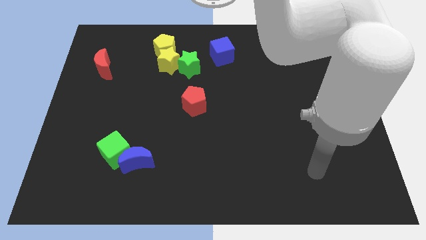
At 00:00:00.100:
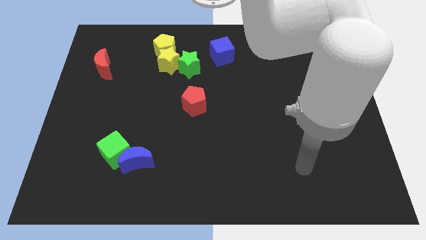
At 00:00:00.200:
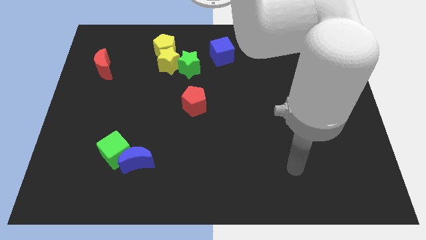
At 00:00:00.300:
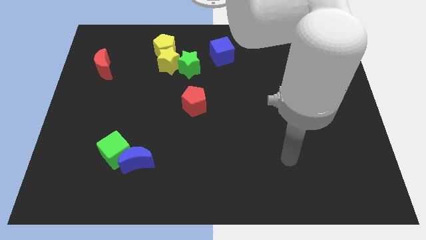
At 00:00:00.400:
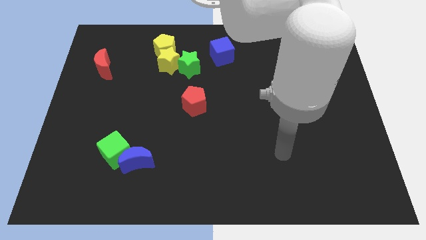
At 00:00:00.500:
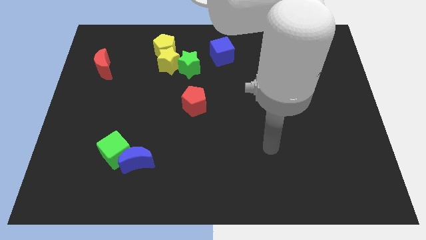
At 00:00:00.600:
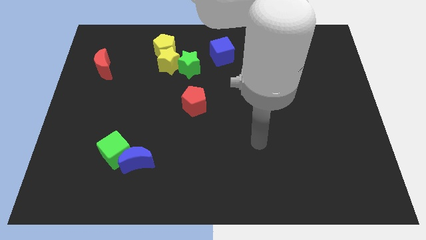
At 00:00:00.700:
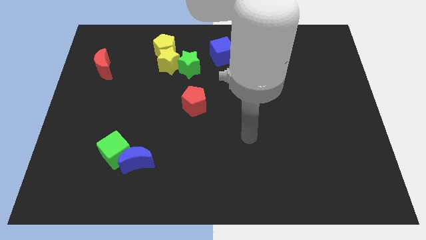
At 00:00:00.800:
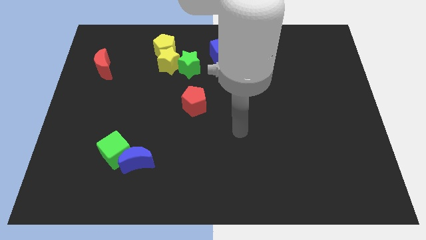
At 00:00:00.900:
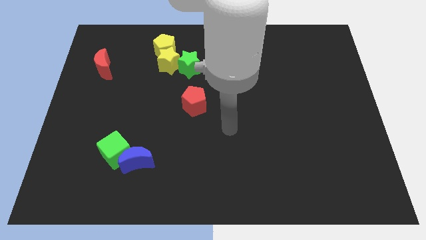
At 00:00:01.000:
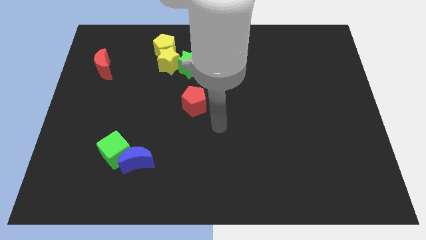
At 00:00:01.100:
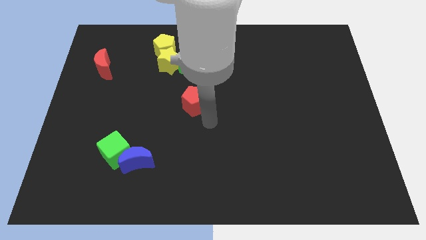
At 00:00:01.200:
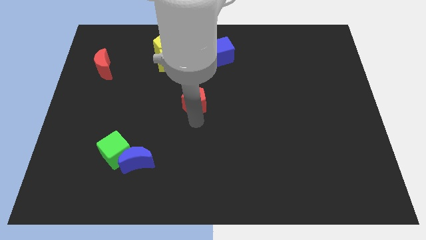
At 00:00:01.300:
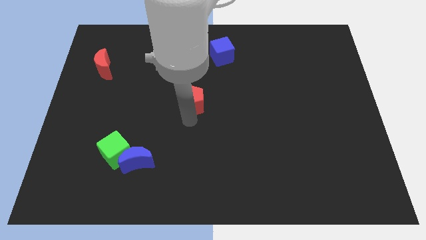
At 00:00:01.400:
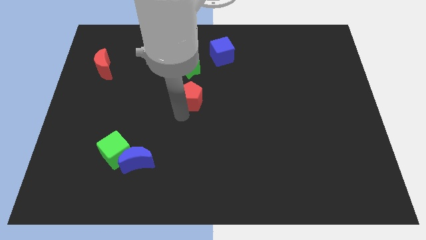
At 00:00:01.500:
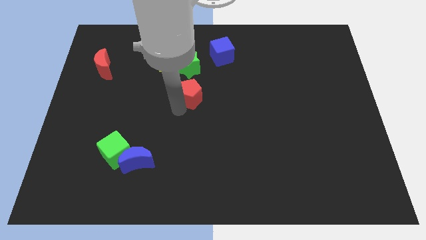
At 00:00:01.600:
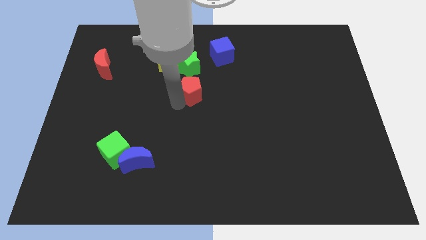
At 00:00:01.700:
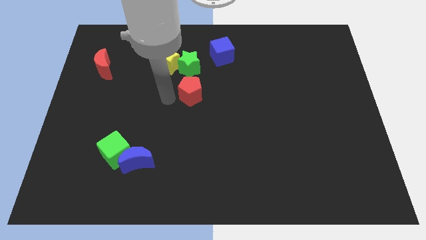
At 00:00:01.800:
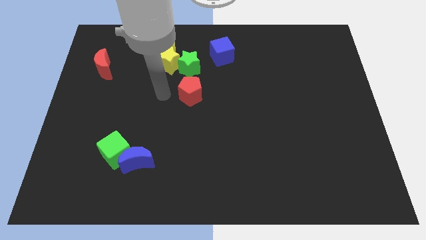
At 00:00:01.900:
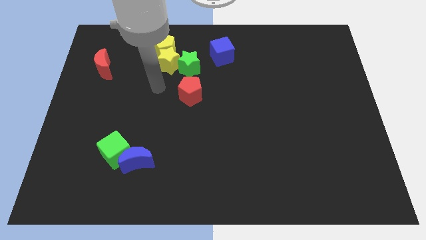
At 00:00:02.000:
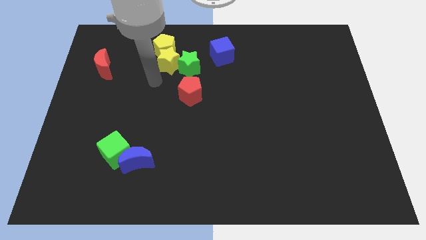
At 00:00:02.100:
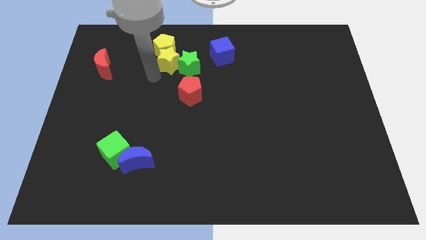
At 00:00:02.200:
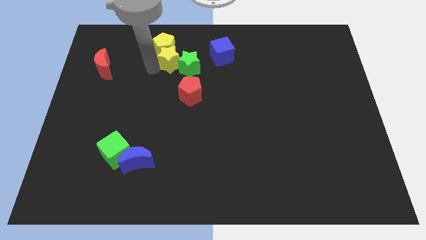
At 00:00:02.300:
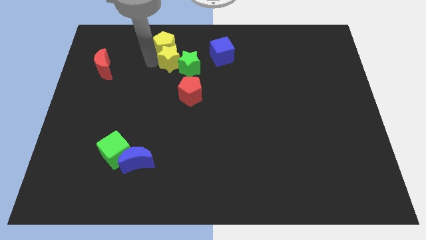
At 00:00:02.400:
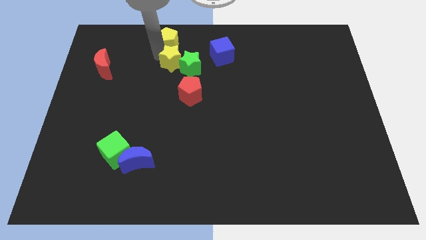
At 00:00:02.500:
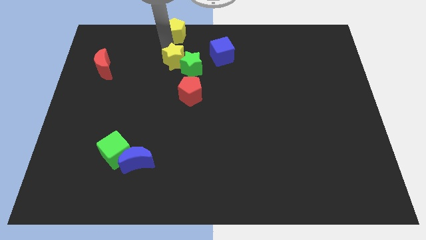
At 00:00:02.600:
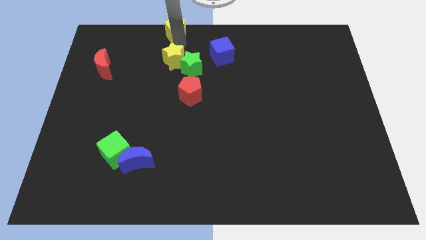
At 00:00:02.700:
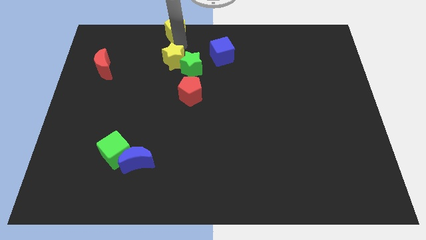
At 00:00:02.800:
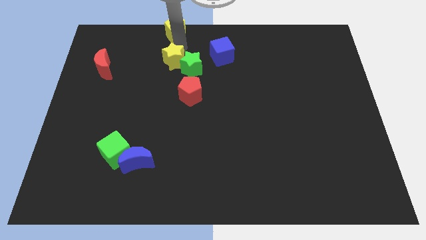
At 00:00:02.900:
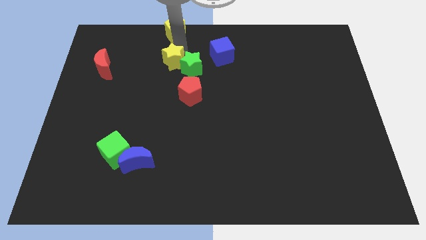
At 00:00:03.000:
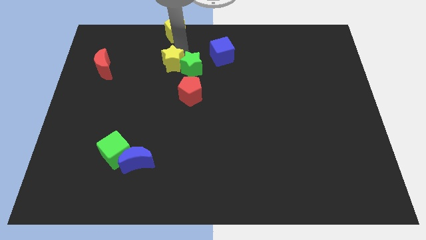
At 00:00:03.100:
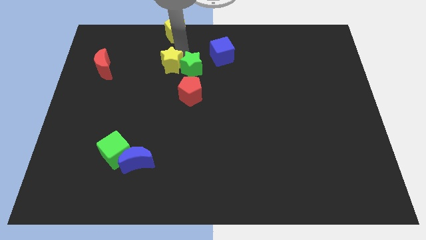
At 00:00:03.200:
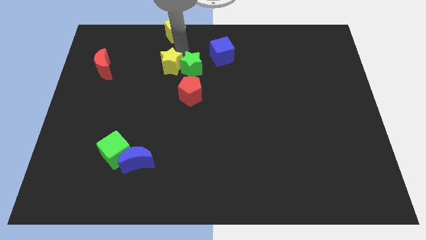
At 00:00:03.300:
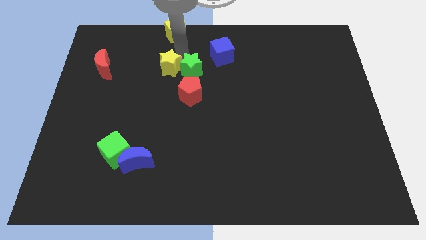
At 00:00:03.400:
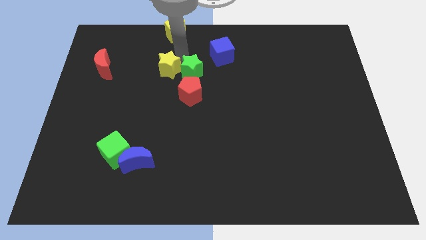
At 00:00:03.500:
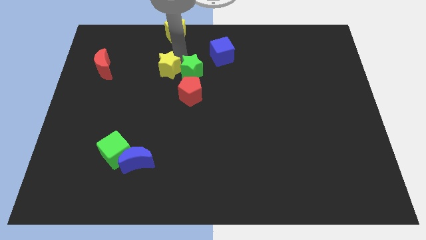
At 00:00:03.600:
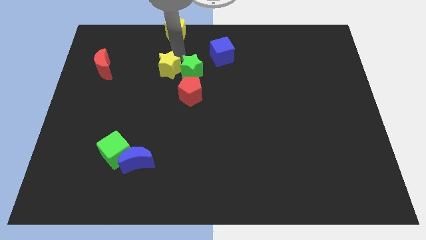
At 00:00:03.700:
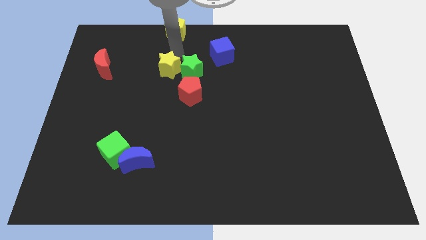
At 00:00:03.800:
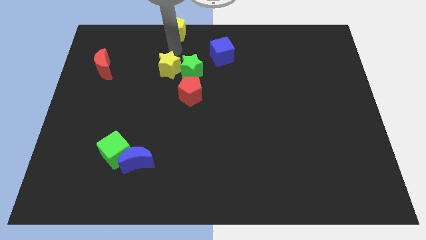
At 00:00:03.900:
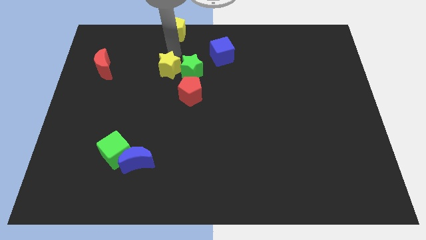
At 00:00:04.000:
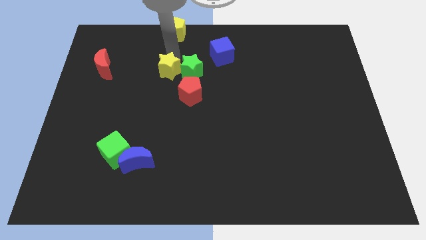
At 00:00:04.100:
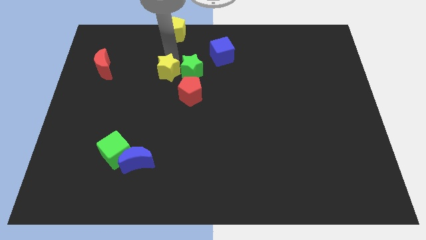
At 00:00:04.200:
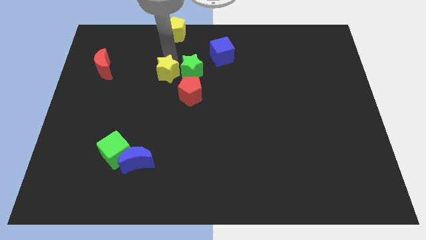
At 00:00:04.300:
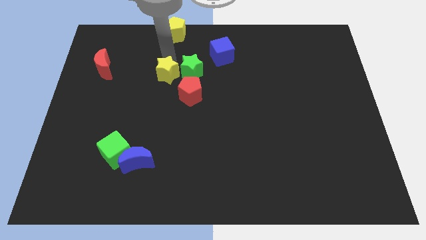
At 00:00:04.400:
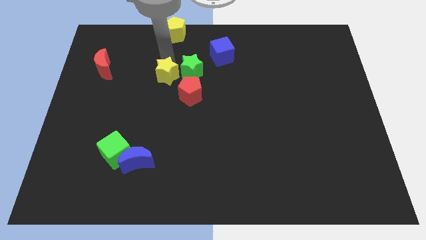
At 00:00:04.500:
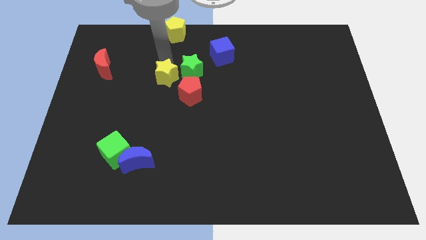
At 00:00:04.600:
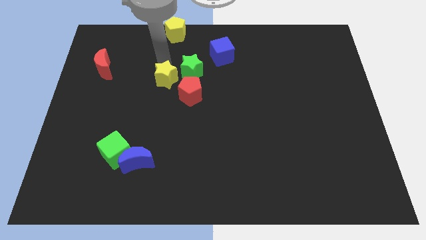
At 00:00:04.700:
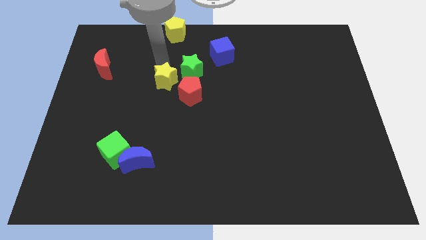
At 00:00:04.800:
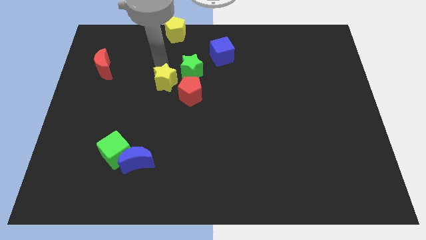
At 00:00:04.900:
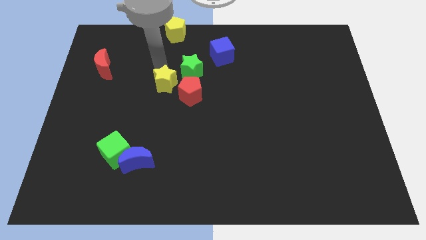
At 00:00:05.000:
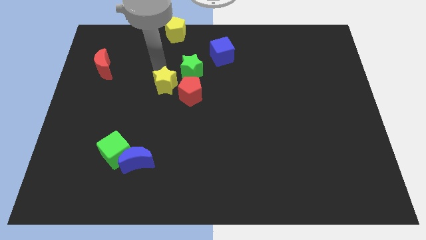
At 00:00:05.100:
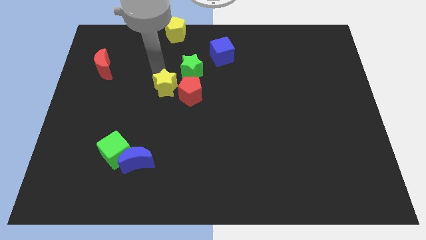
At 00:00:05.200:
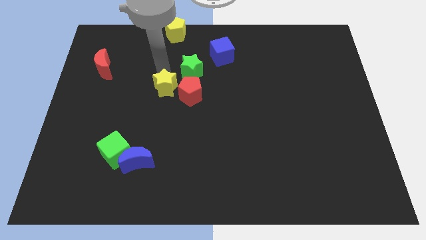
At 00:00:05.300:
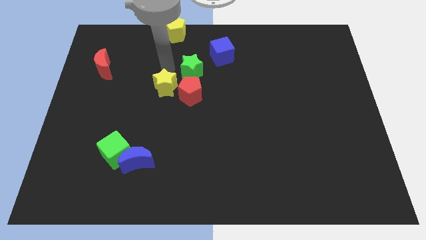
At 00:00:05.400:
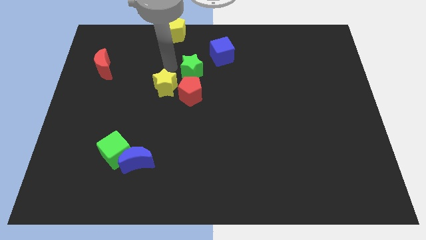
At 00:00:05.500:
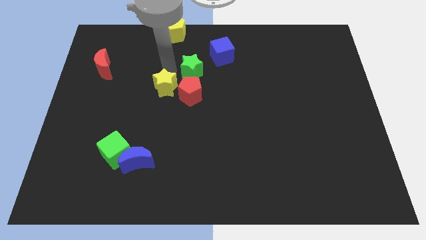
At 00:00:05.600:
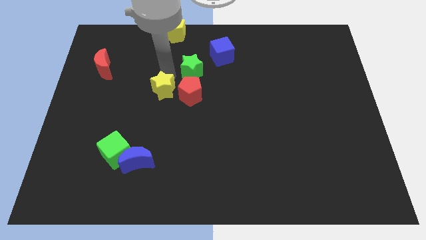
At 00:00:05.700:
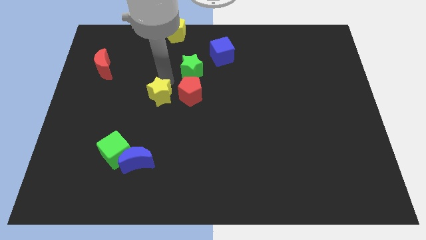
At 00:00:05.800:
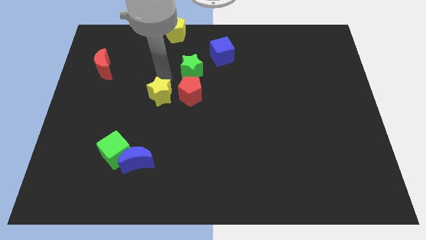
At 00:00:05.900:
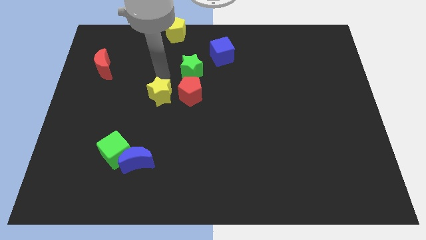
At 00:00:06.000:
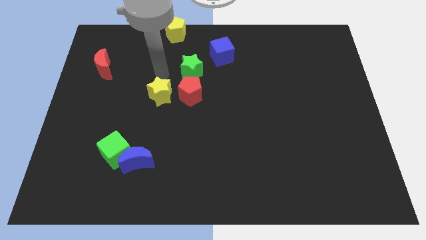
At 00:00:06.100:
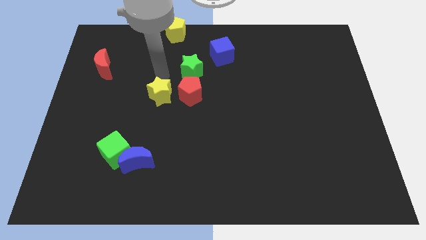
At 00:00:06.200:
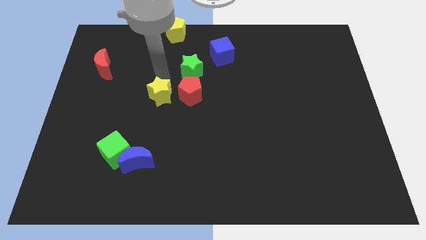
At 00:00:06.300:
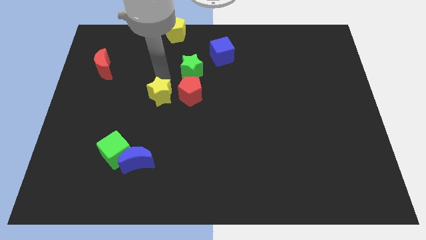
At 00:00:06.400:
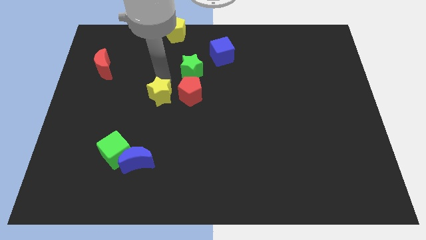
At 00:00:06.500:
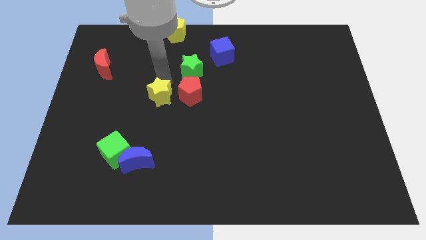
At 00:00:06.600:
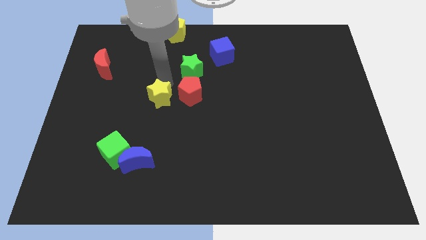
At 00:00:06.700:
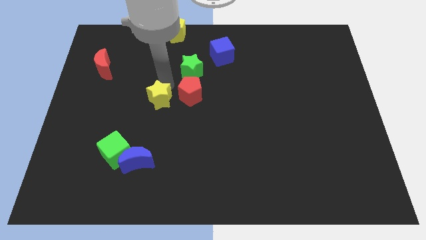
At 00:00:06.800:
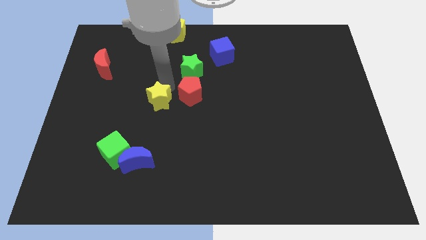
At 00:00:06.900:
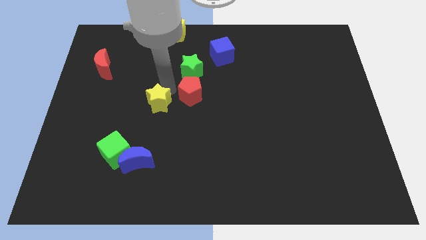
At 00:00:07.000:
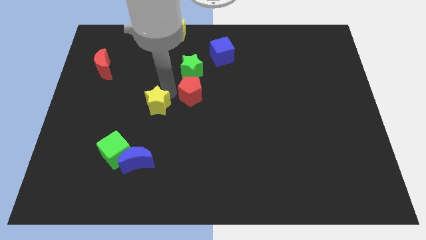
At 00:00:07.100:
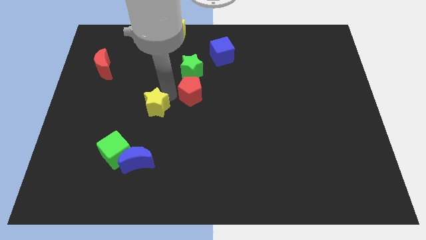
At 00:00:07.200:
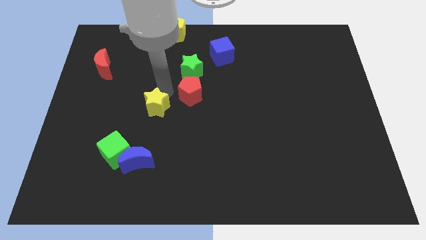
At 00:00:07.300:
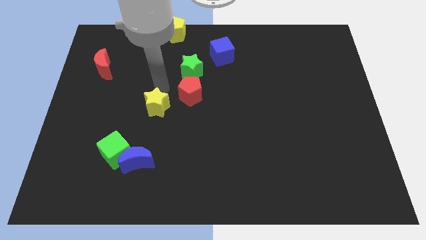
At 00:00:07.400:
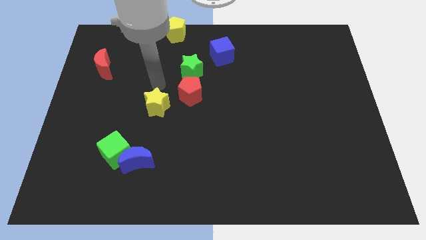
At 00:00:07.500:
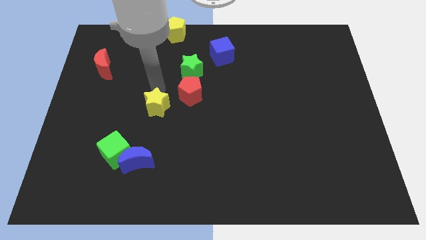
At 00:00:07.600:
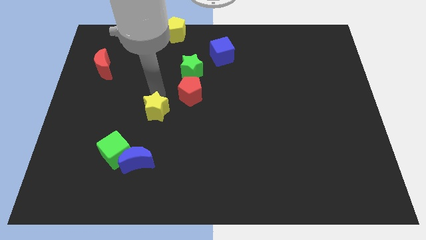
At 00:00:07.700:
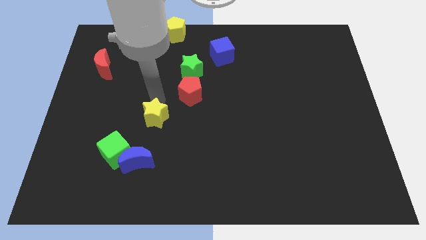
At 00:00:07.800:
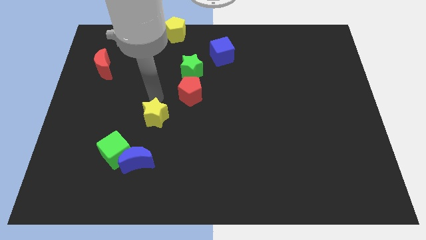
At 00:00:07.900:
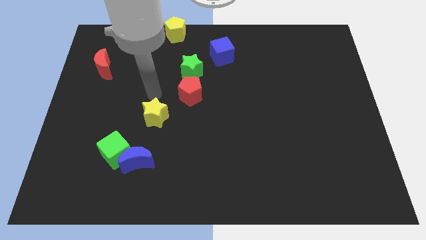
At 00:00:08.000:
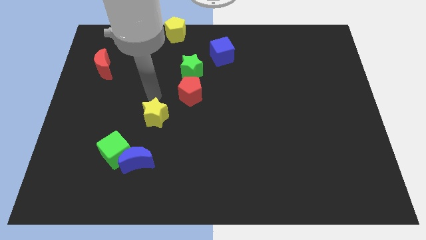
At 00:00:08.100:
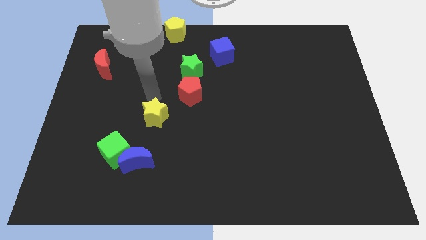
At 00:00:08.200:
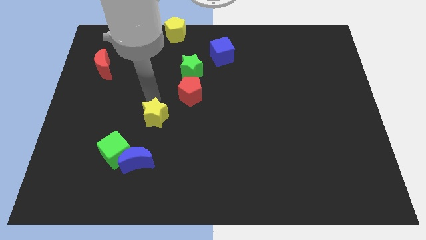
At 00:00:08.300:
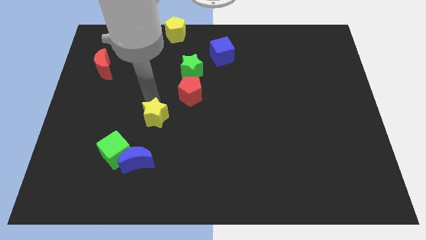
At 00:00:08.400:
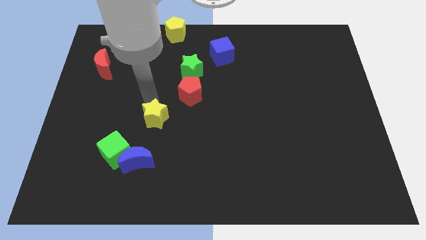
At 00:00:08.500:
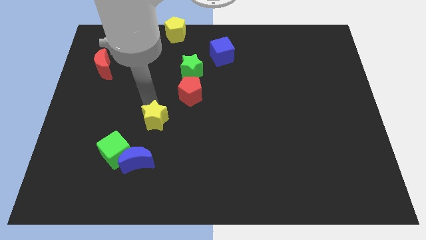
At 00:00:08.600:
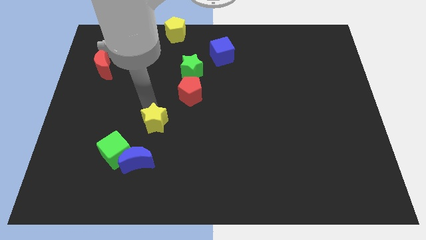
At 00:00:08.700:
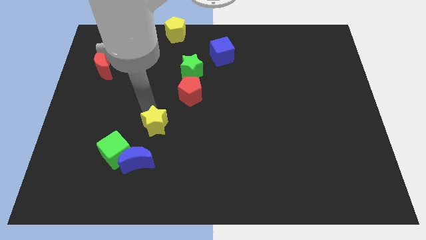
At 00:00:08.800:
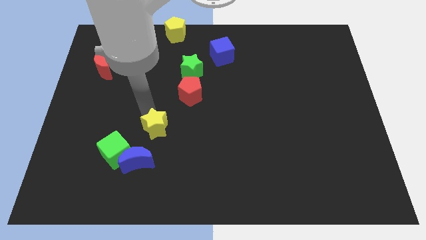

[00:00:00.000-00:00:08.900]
push the yellow star downwards
